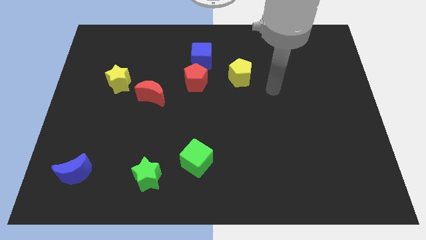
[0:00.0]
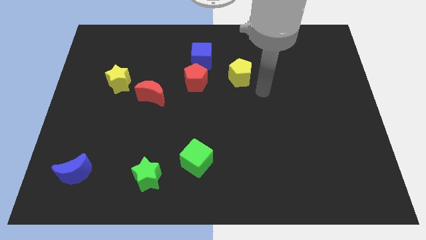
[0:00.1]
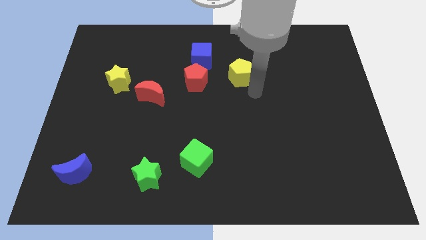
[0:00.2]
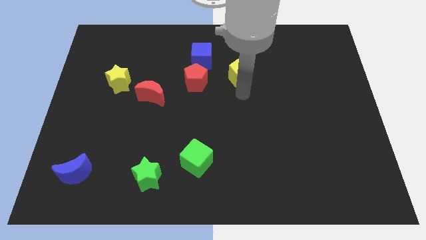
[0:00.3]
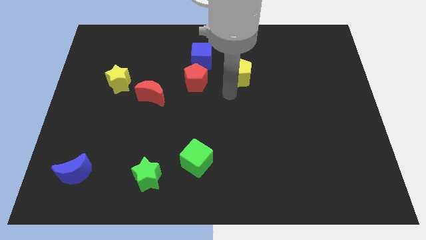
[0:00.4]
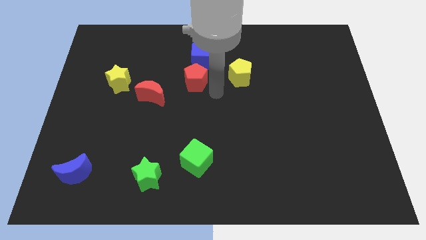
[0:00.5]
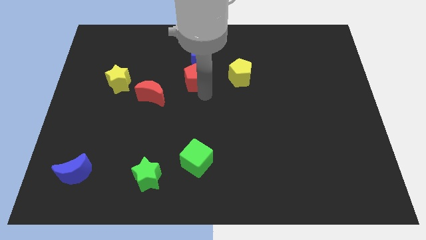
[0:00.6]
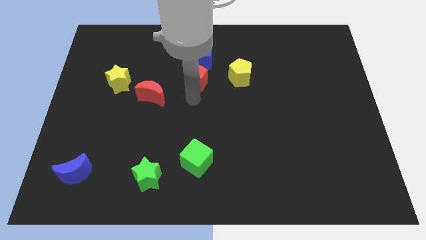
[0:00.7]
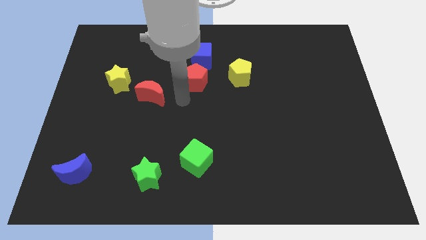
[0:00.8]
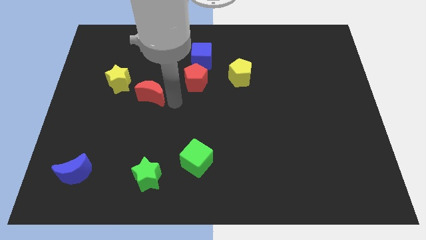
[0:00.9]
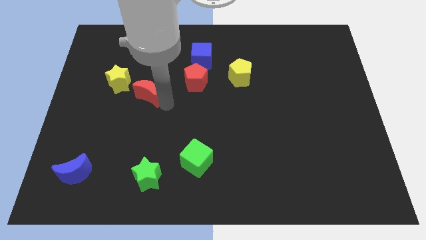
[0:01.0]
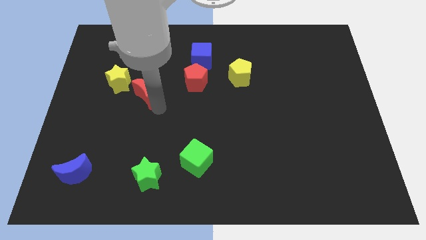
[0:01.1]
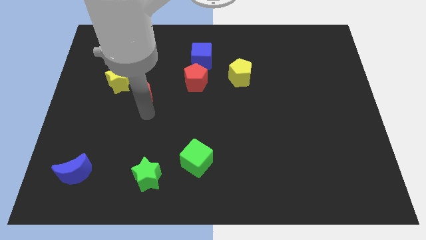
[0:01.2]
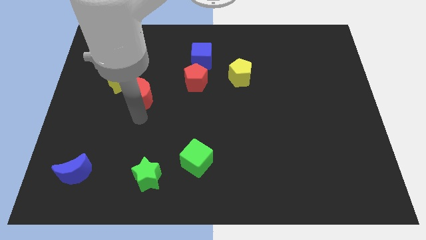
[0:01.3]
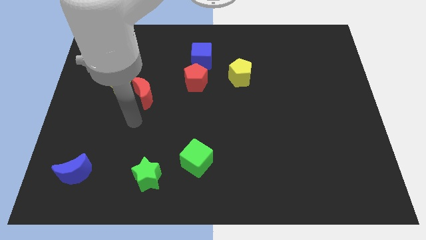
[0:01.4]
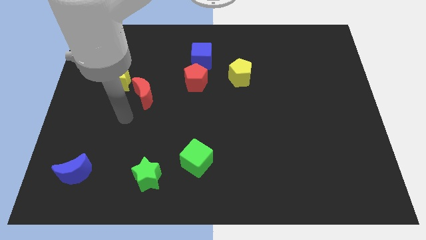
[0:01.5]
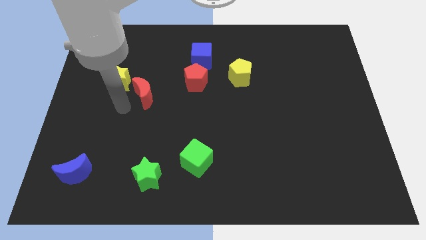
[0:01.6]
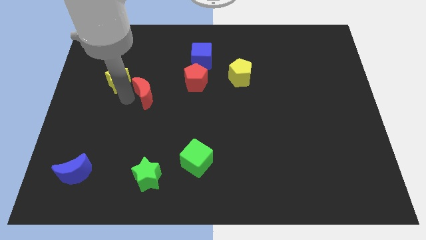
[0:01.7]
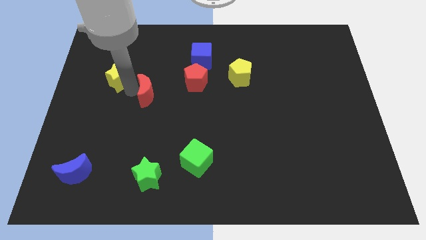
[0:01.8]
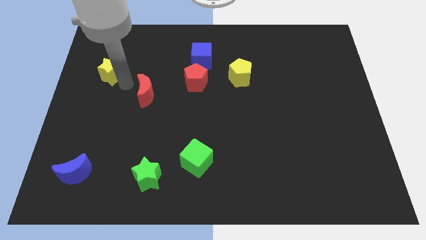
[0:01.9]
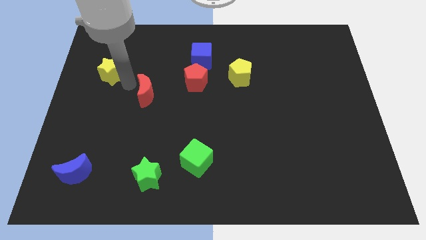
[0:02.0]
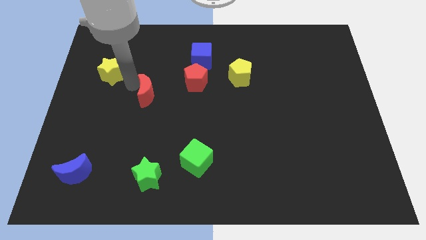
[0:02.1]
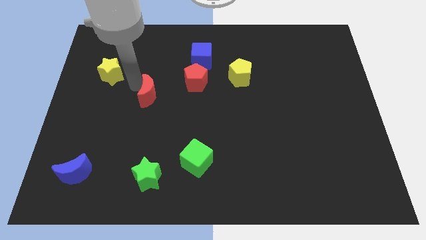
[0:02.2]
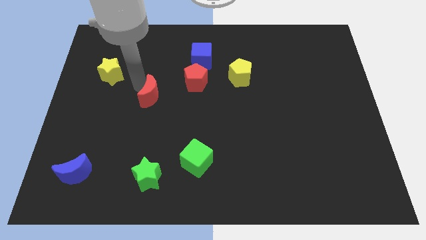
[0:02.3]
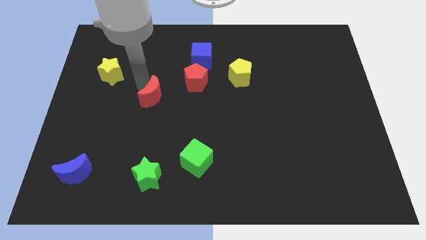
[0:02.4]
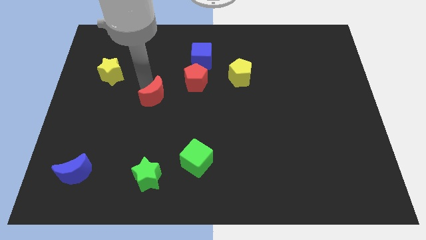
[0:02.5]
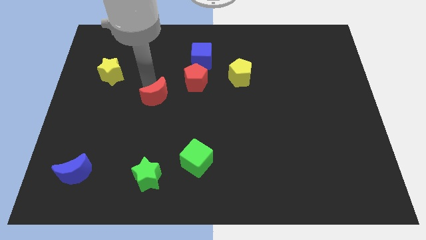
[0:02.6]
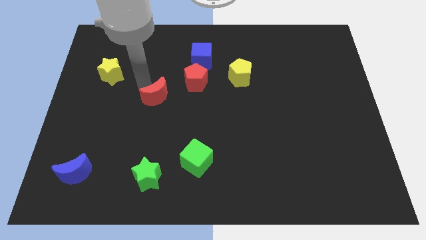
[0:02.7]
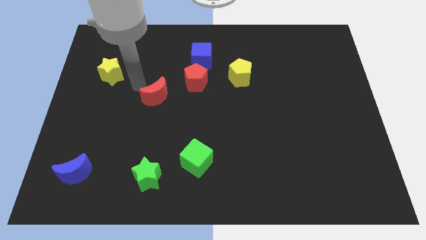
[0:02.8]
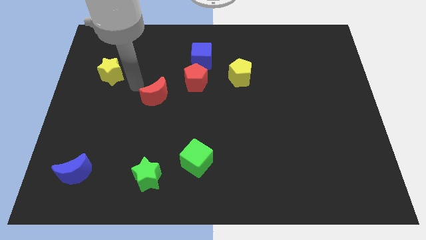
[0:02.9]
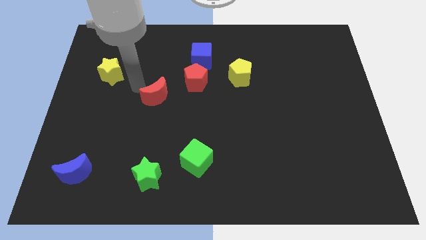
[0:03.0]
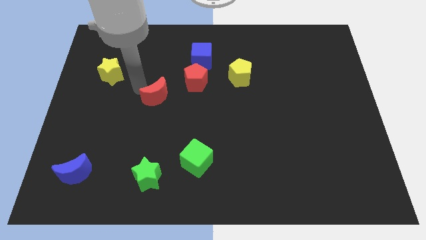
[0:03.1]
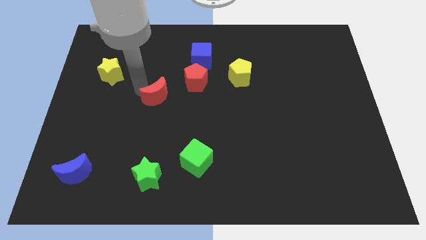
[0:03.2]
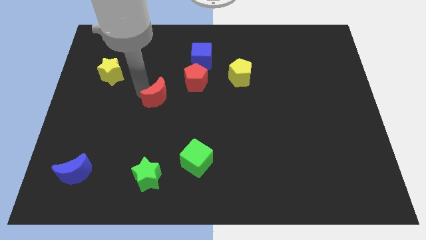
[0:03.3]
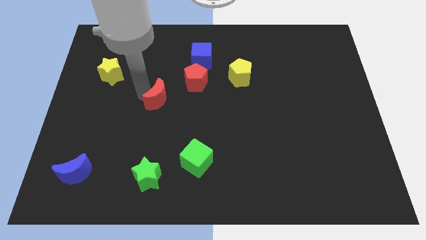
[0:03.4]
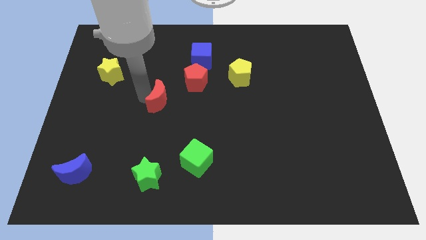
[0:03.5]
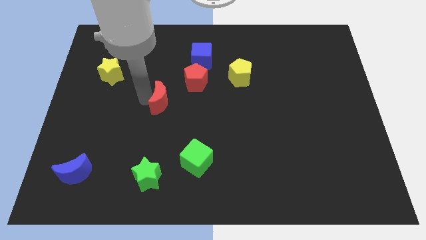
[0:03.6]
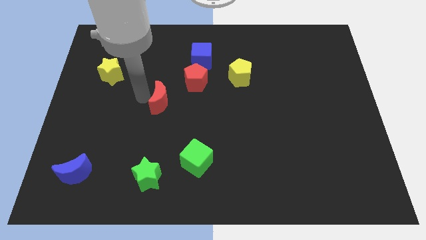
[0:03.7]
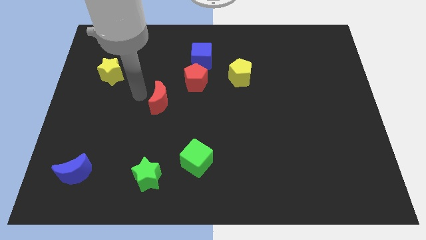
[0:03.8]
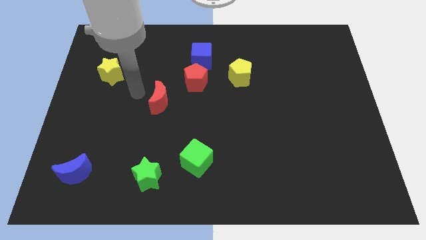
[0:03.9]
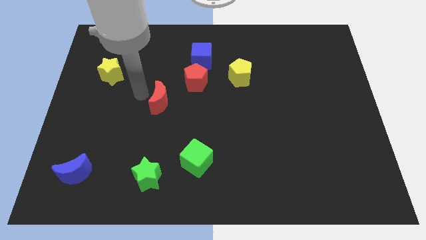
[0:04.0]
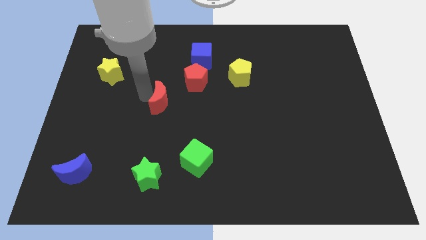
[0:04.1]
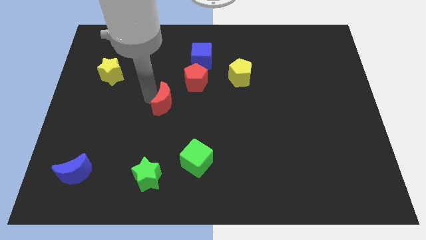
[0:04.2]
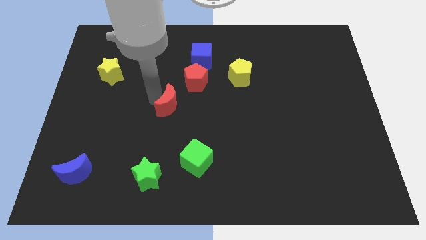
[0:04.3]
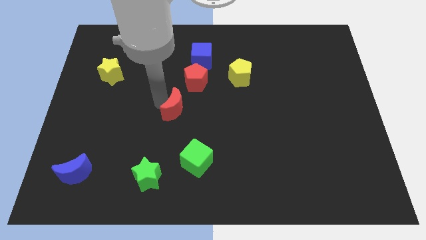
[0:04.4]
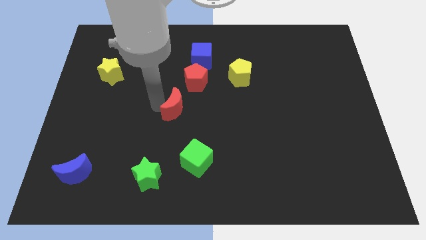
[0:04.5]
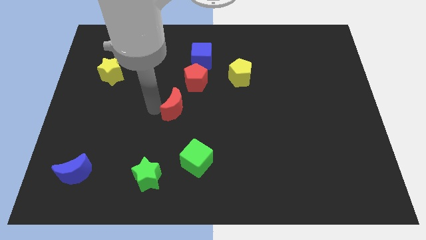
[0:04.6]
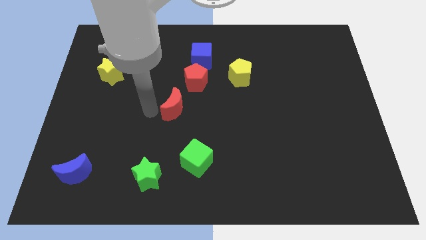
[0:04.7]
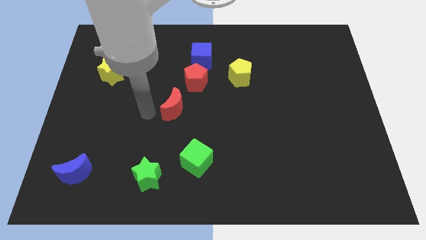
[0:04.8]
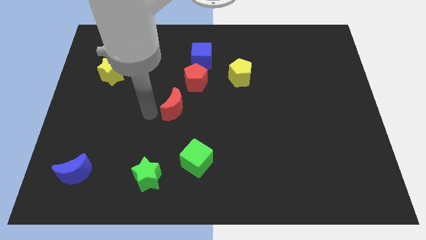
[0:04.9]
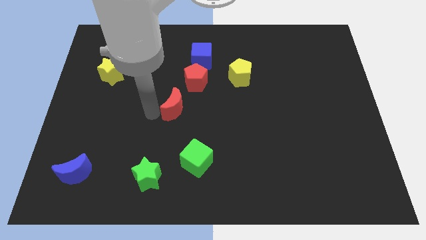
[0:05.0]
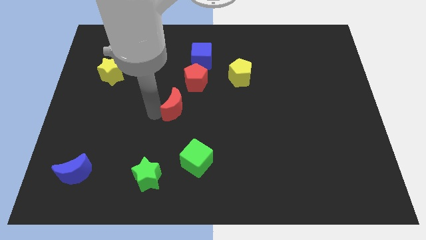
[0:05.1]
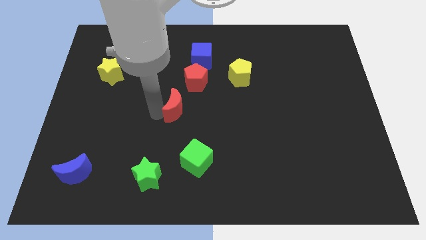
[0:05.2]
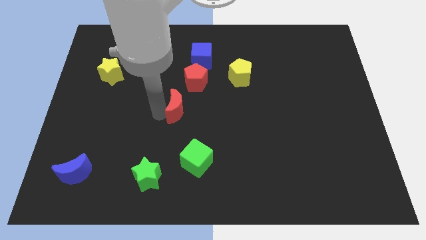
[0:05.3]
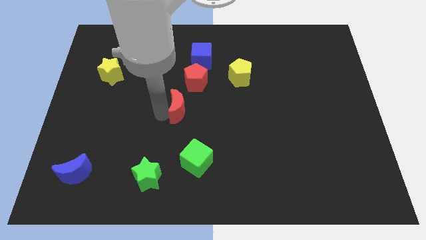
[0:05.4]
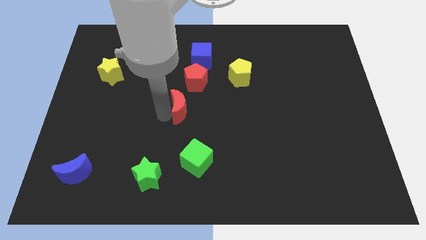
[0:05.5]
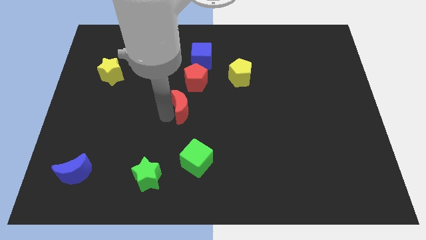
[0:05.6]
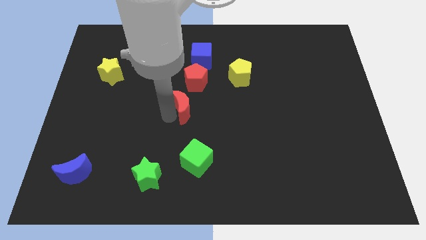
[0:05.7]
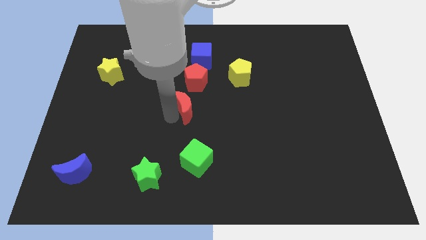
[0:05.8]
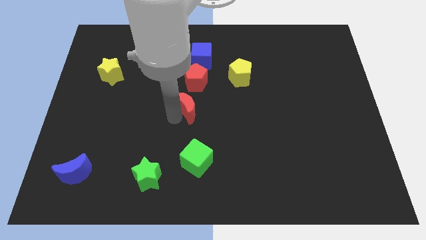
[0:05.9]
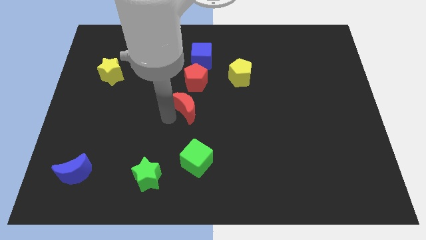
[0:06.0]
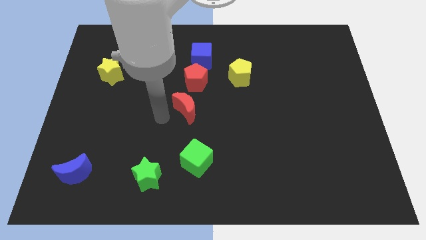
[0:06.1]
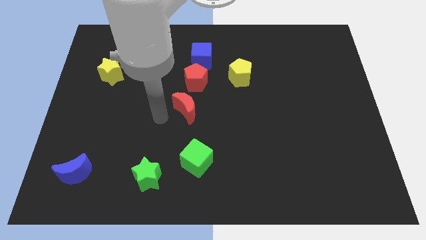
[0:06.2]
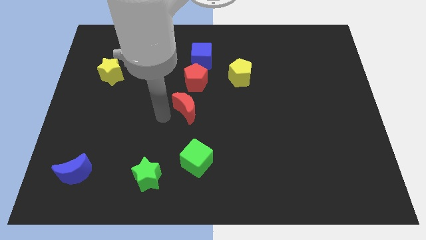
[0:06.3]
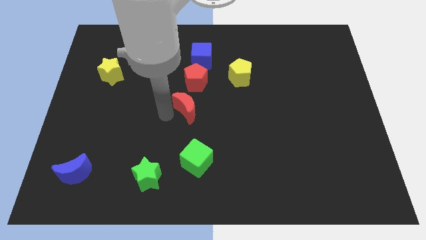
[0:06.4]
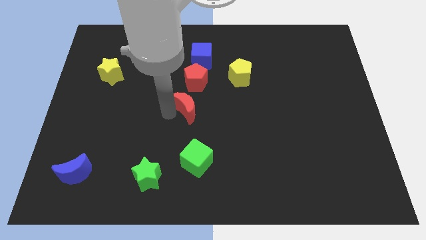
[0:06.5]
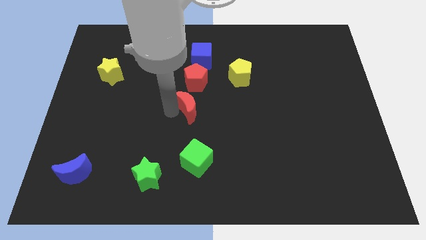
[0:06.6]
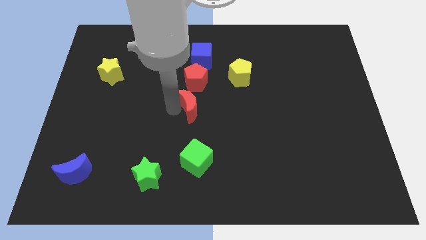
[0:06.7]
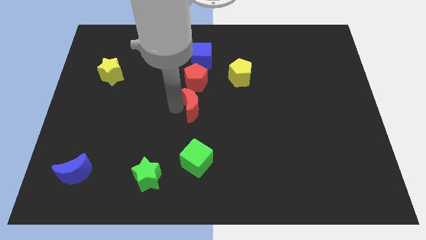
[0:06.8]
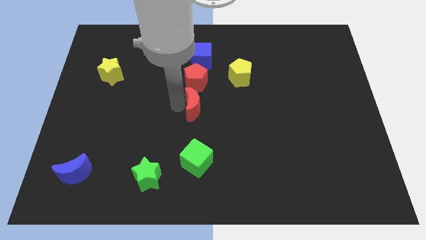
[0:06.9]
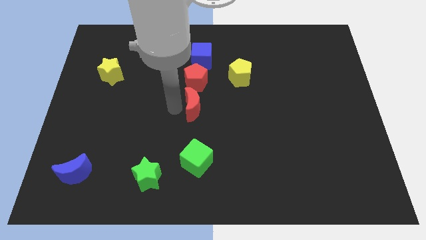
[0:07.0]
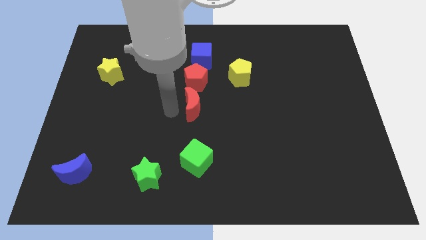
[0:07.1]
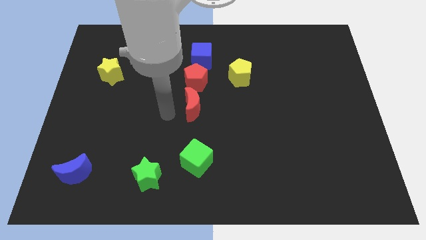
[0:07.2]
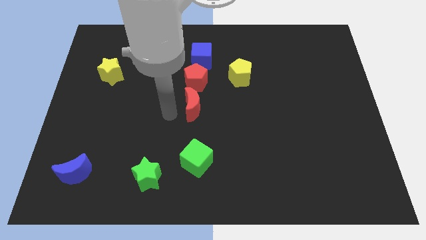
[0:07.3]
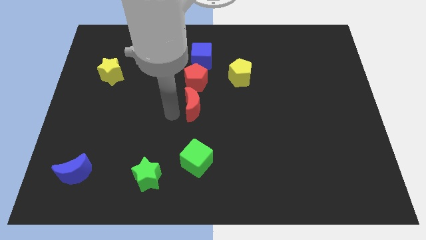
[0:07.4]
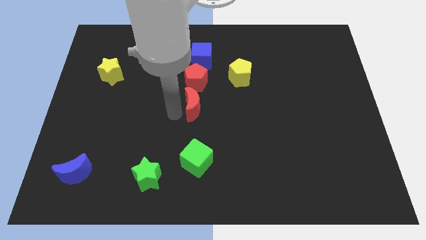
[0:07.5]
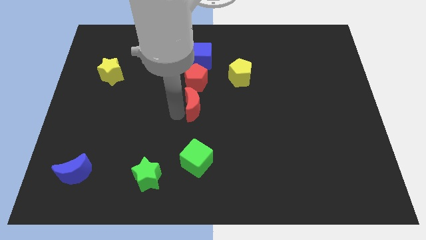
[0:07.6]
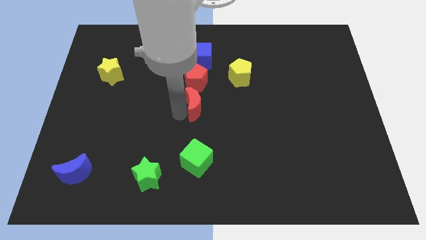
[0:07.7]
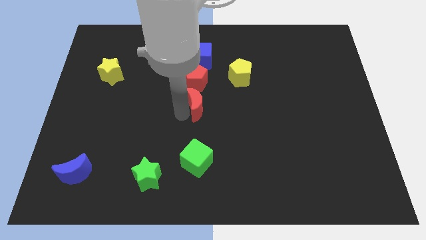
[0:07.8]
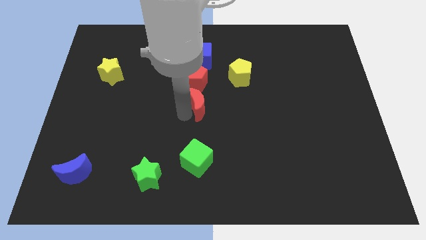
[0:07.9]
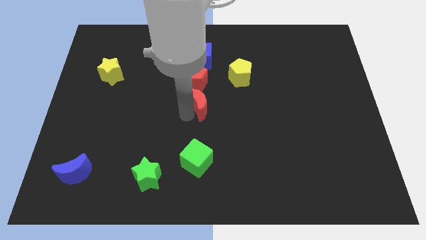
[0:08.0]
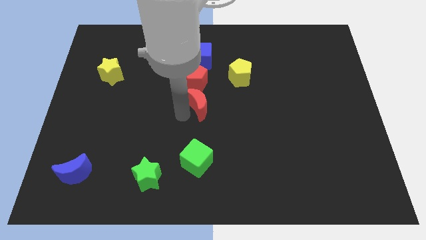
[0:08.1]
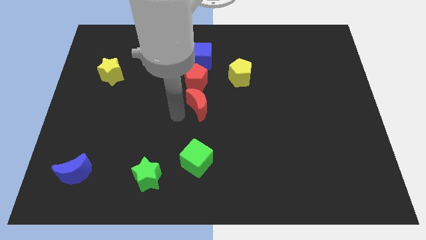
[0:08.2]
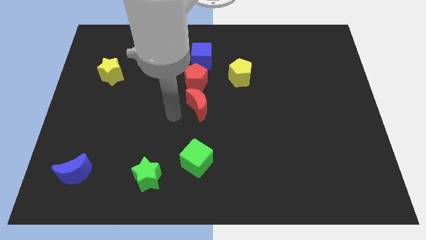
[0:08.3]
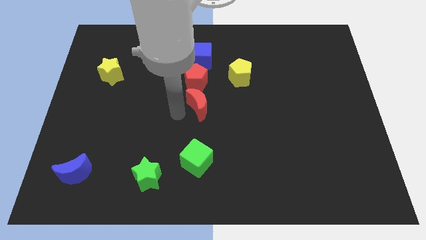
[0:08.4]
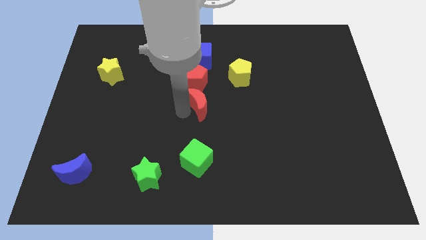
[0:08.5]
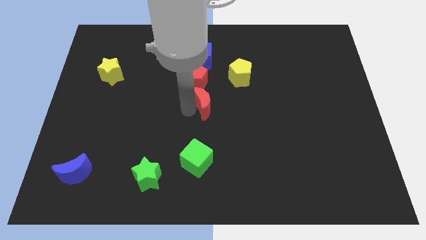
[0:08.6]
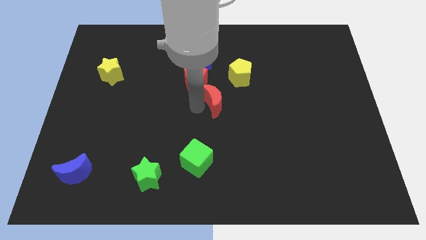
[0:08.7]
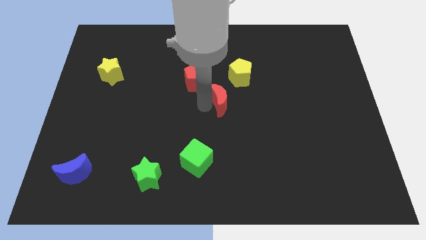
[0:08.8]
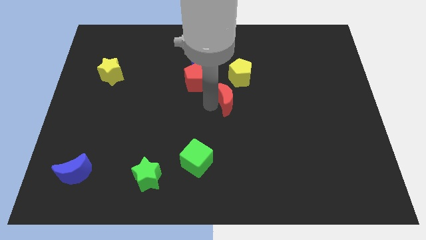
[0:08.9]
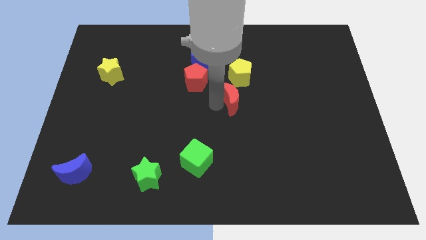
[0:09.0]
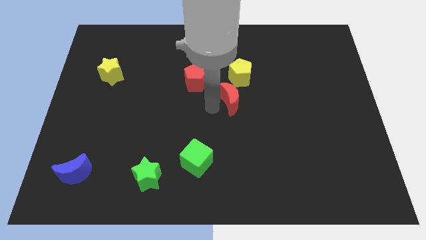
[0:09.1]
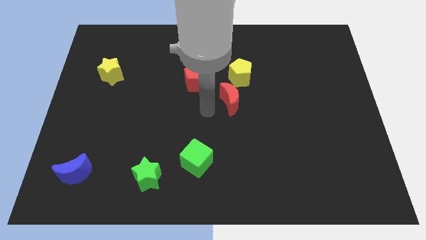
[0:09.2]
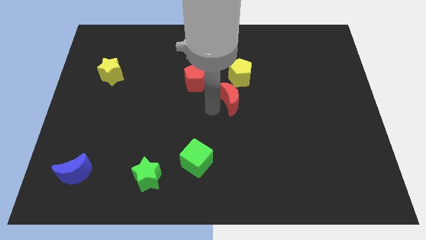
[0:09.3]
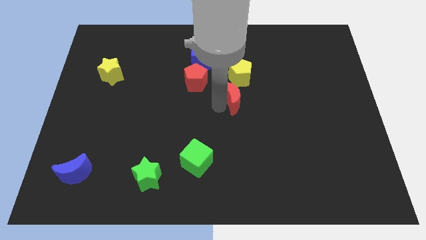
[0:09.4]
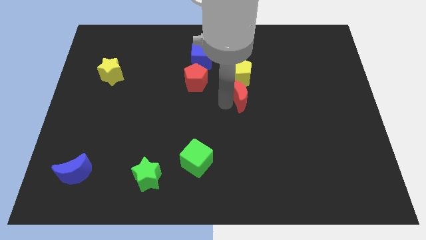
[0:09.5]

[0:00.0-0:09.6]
move the red moon to the right
